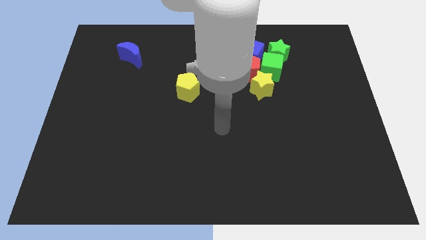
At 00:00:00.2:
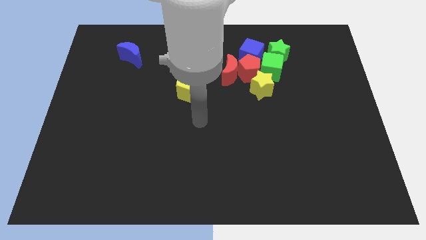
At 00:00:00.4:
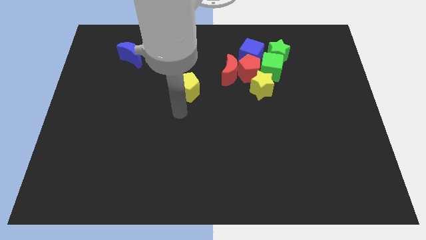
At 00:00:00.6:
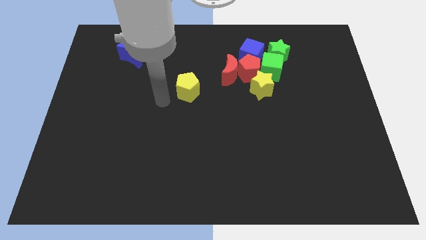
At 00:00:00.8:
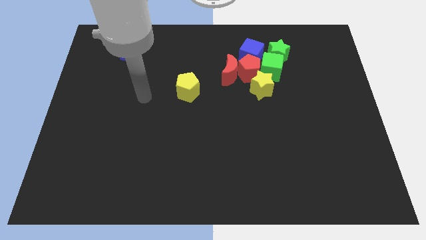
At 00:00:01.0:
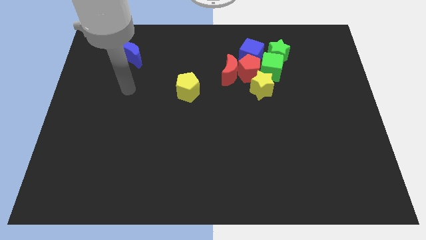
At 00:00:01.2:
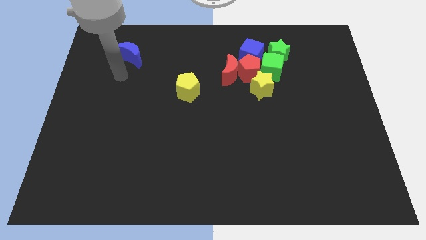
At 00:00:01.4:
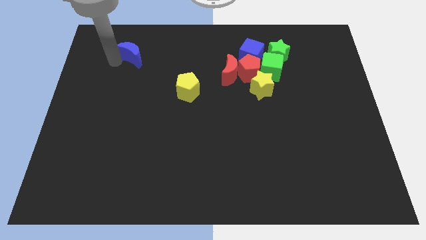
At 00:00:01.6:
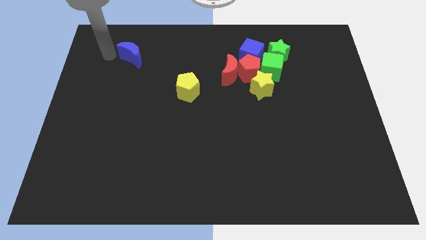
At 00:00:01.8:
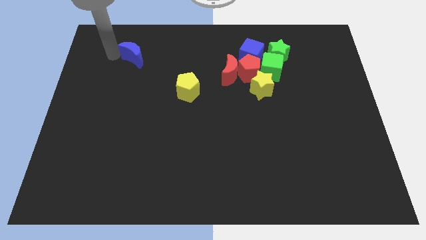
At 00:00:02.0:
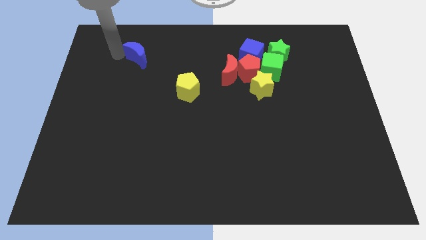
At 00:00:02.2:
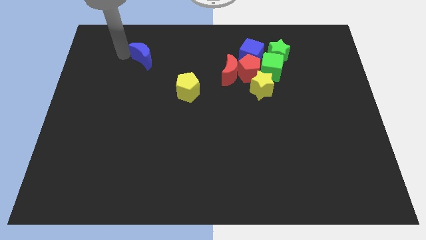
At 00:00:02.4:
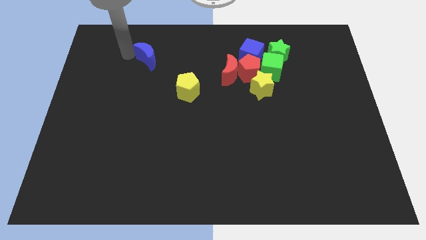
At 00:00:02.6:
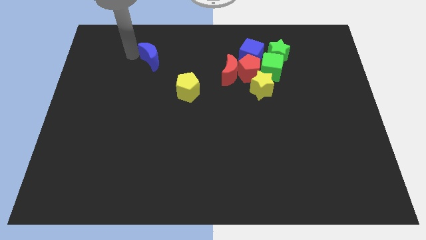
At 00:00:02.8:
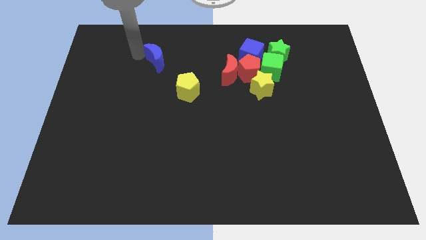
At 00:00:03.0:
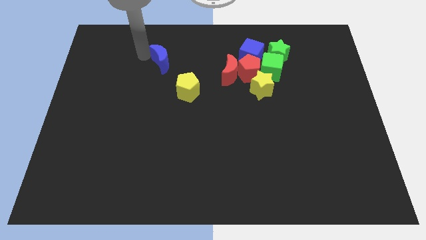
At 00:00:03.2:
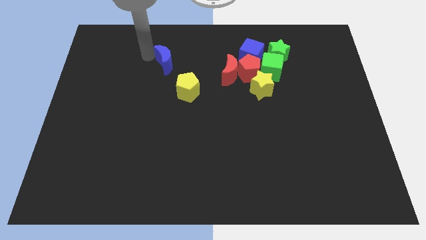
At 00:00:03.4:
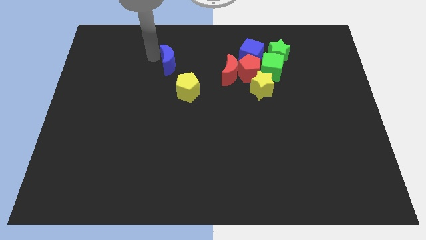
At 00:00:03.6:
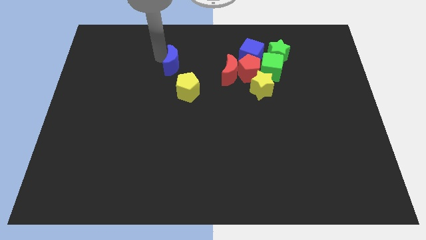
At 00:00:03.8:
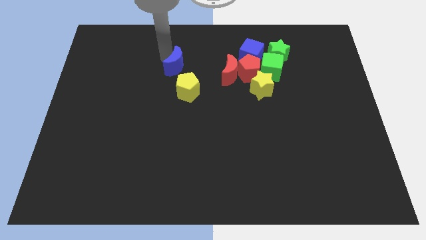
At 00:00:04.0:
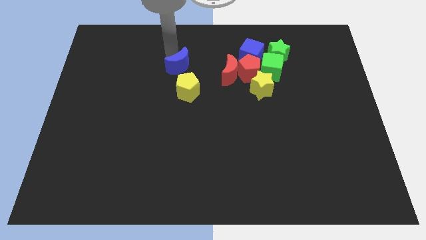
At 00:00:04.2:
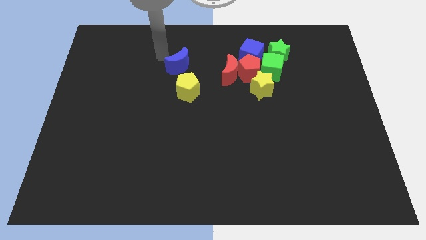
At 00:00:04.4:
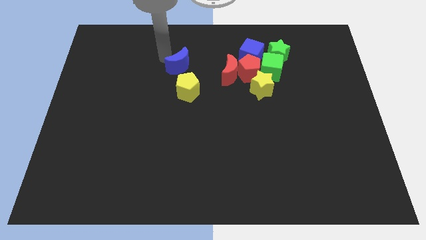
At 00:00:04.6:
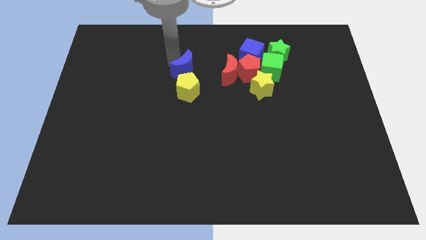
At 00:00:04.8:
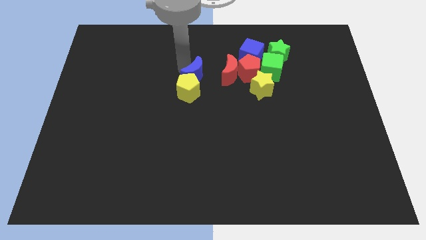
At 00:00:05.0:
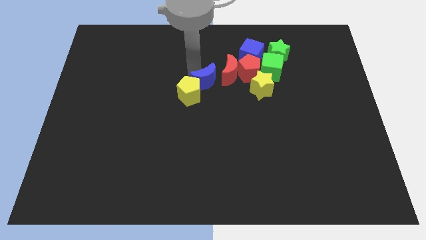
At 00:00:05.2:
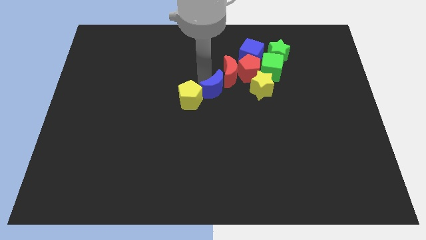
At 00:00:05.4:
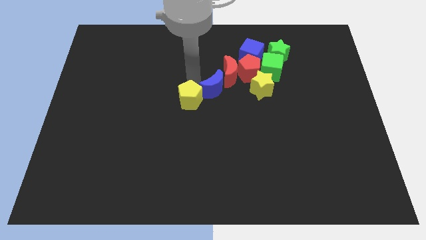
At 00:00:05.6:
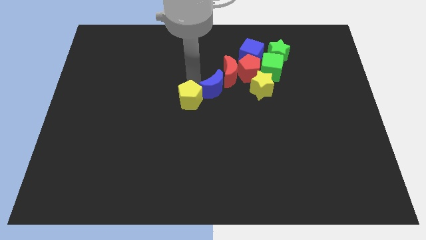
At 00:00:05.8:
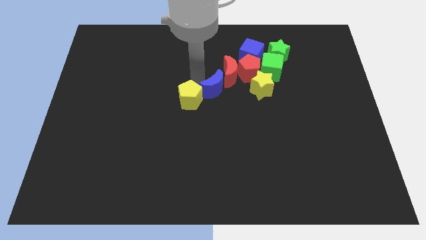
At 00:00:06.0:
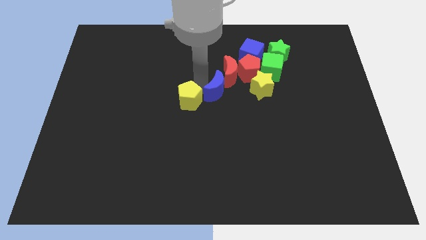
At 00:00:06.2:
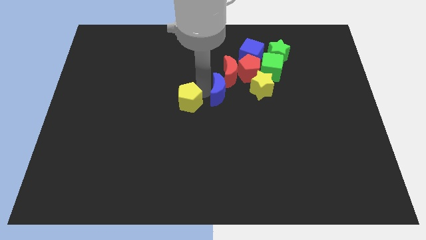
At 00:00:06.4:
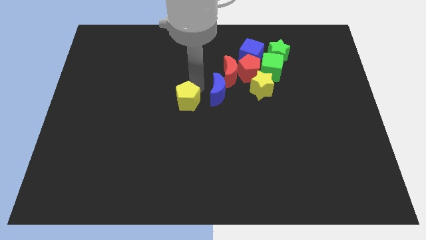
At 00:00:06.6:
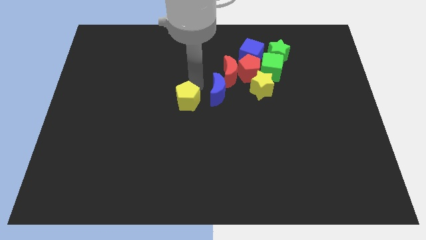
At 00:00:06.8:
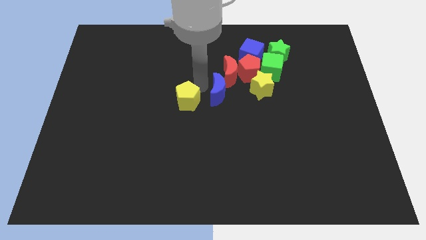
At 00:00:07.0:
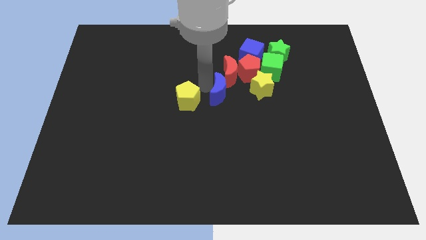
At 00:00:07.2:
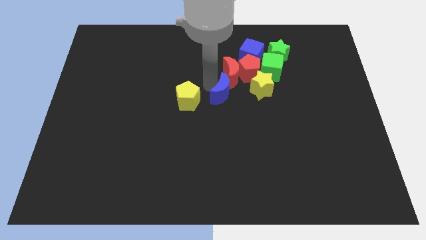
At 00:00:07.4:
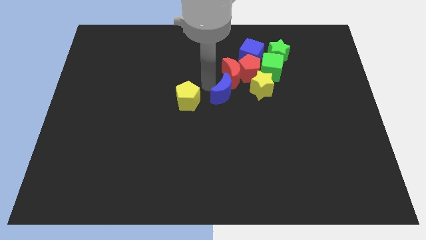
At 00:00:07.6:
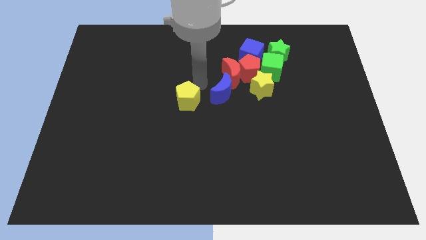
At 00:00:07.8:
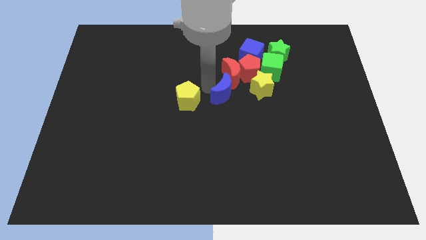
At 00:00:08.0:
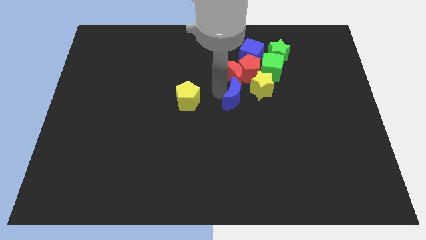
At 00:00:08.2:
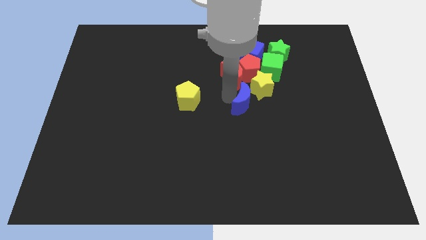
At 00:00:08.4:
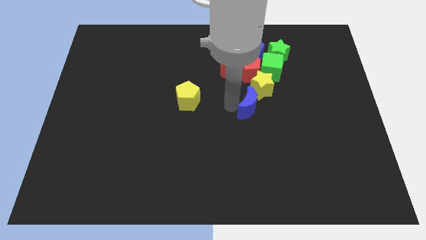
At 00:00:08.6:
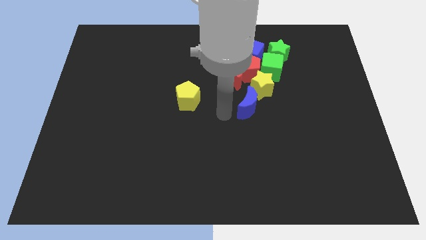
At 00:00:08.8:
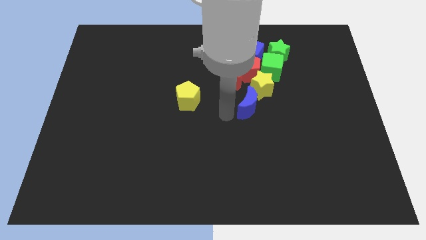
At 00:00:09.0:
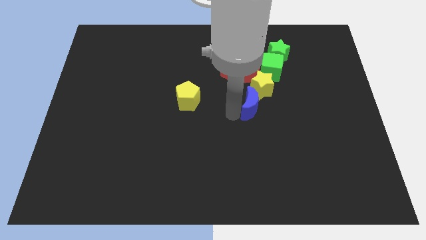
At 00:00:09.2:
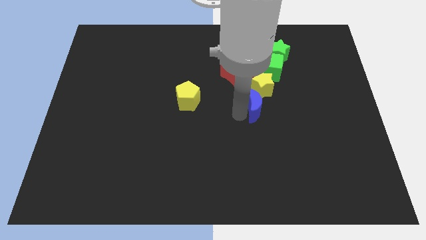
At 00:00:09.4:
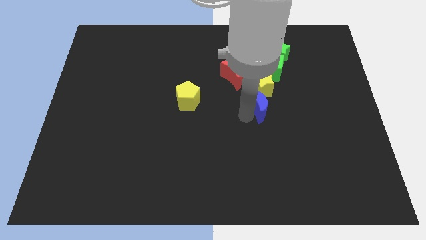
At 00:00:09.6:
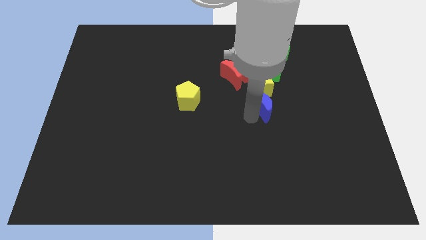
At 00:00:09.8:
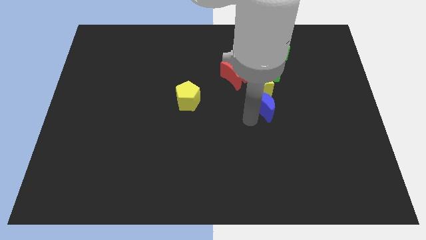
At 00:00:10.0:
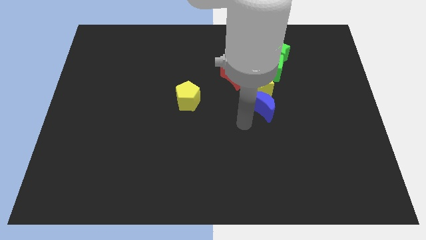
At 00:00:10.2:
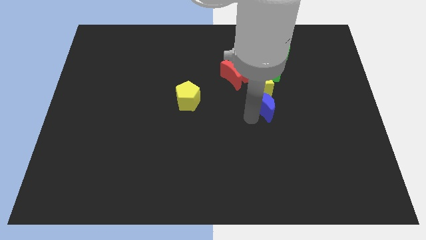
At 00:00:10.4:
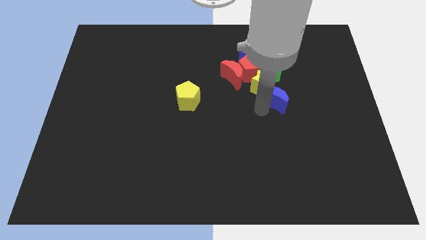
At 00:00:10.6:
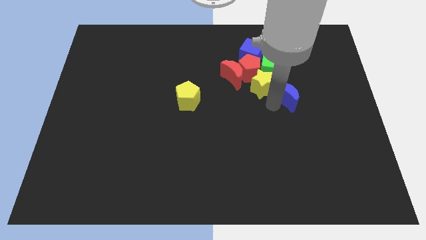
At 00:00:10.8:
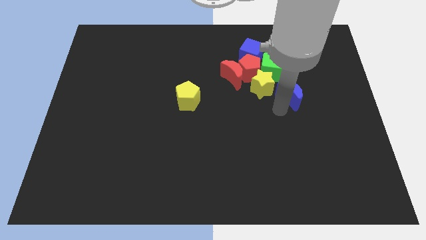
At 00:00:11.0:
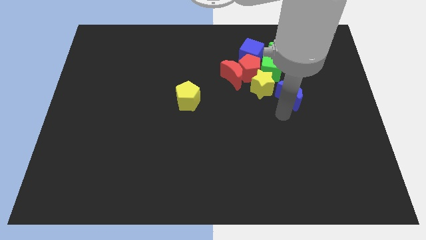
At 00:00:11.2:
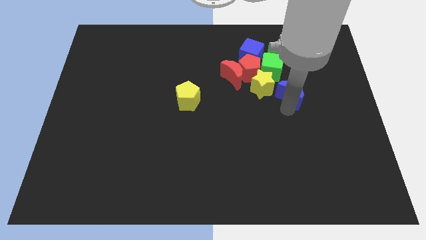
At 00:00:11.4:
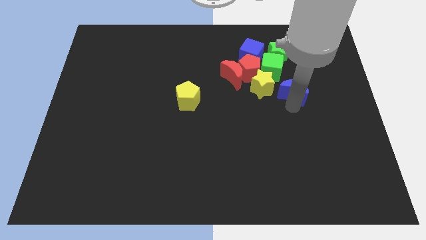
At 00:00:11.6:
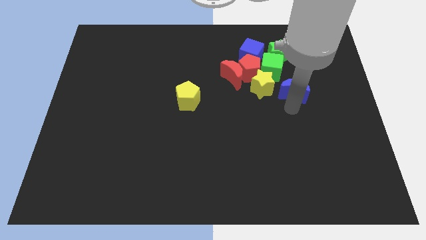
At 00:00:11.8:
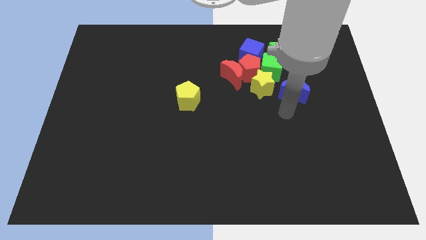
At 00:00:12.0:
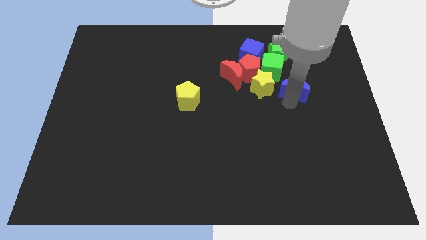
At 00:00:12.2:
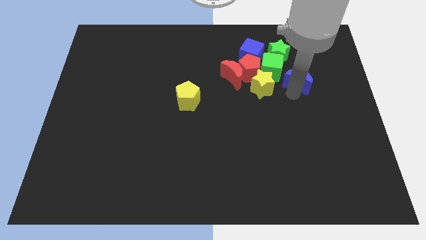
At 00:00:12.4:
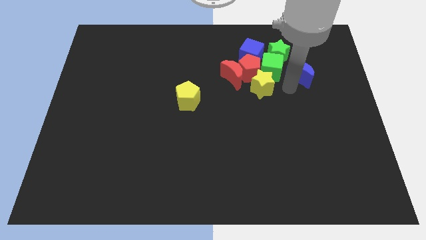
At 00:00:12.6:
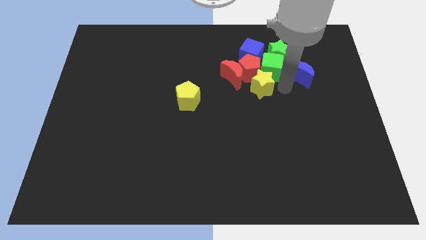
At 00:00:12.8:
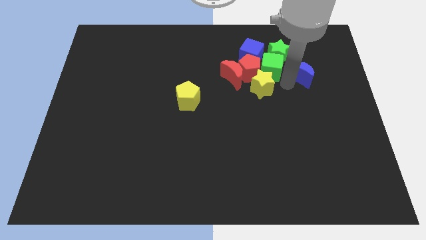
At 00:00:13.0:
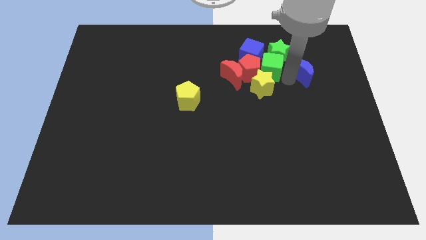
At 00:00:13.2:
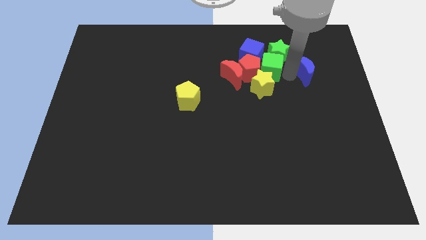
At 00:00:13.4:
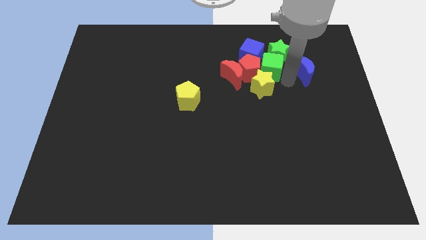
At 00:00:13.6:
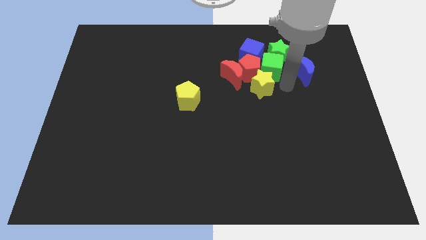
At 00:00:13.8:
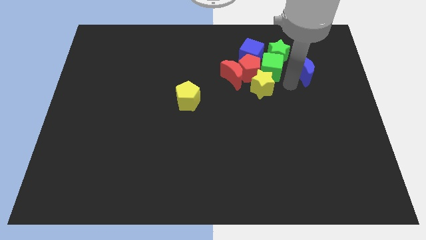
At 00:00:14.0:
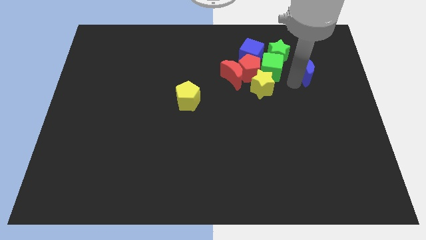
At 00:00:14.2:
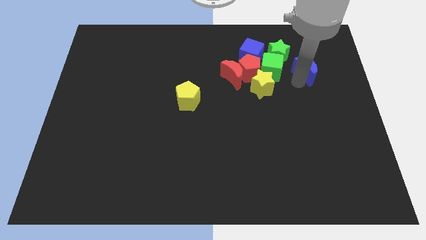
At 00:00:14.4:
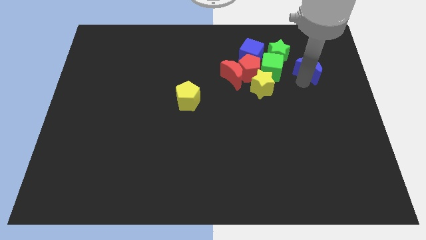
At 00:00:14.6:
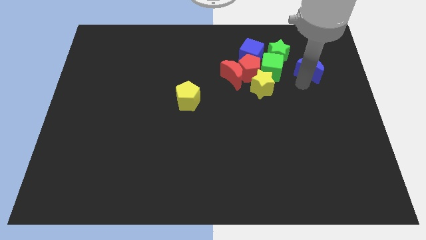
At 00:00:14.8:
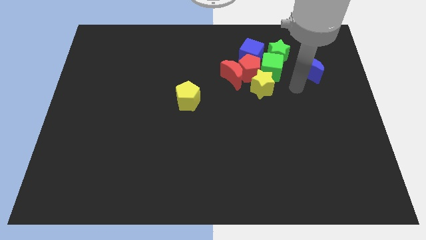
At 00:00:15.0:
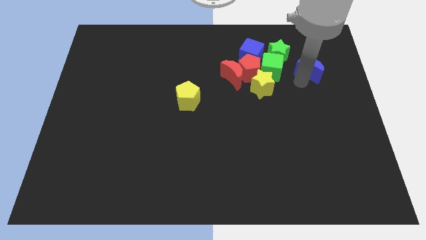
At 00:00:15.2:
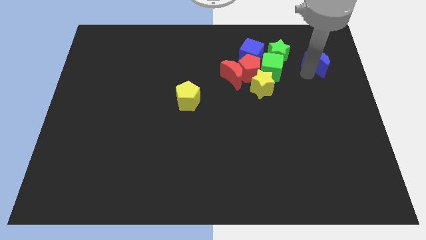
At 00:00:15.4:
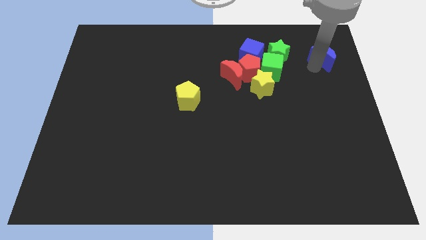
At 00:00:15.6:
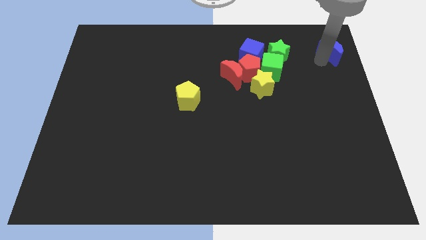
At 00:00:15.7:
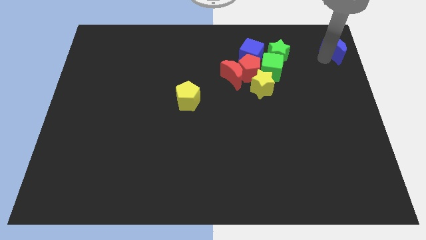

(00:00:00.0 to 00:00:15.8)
put the blue moon to the top right corner
